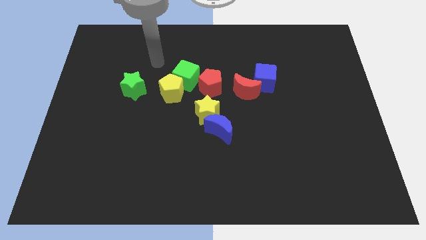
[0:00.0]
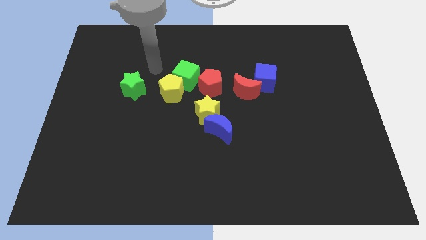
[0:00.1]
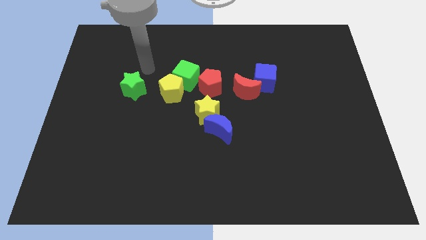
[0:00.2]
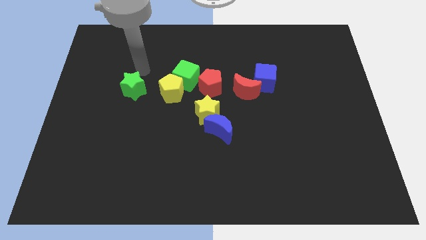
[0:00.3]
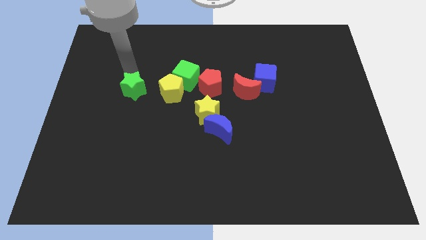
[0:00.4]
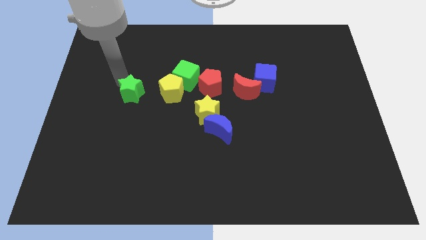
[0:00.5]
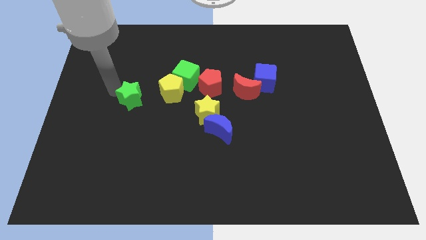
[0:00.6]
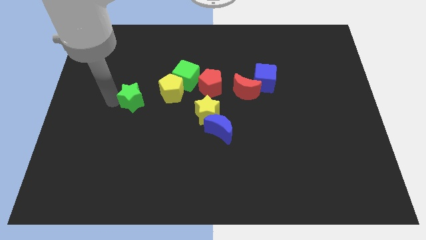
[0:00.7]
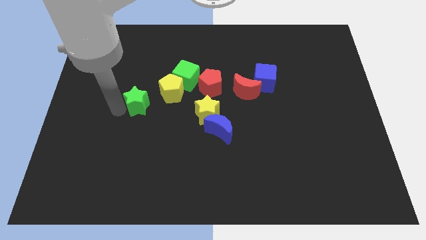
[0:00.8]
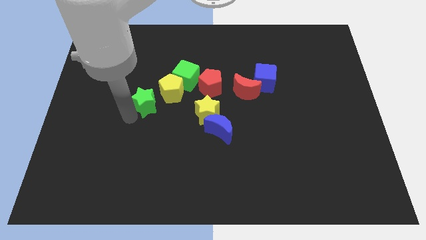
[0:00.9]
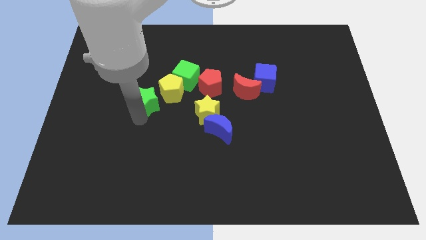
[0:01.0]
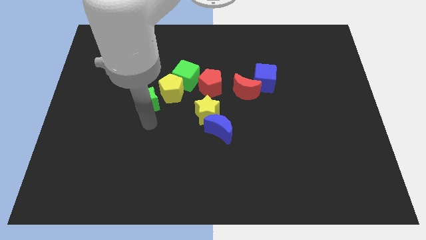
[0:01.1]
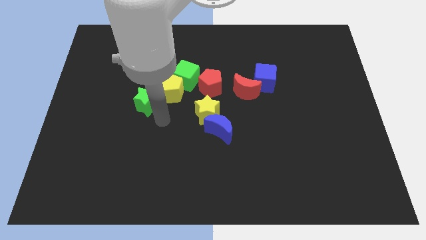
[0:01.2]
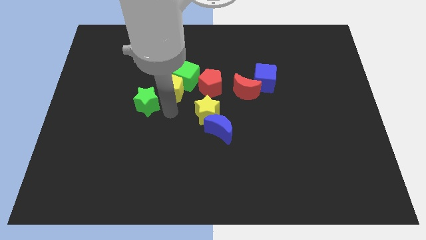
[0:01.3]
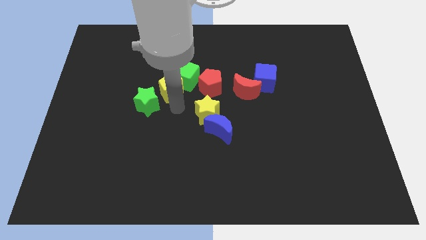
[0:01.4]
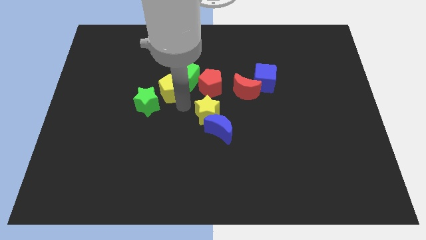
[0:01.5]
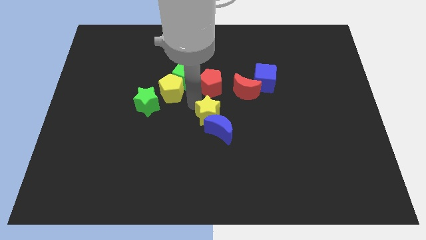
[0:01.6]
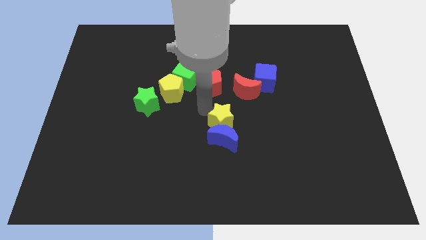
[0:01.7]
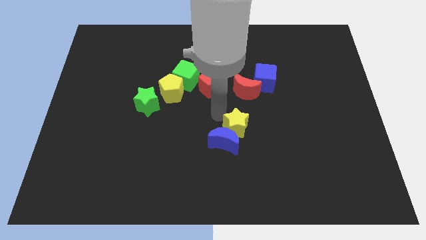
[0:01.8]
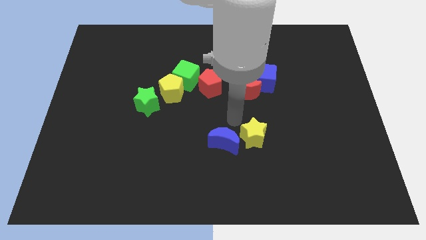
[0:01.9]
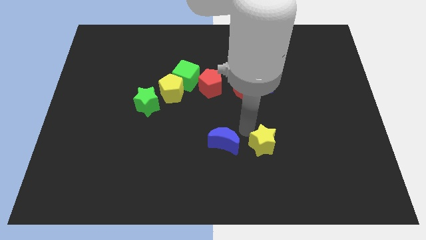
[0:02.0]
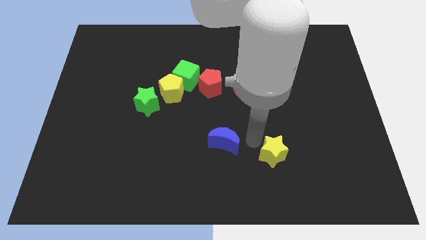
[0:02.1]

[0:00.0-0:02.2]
move the blue moon away from the yellow star

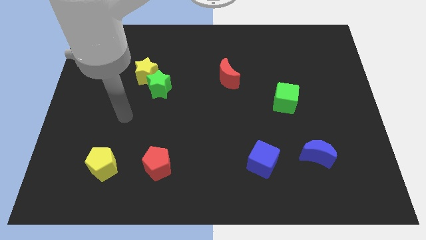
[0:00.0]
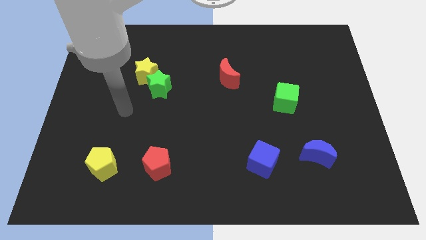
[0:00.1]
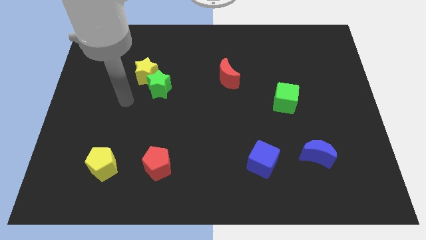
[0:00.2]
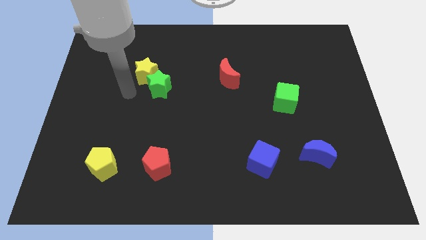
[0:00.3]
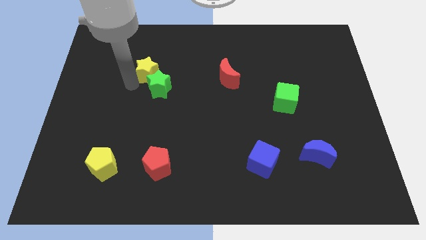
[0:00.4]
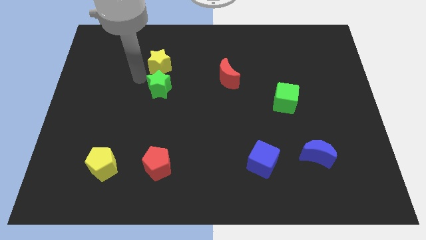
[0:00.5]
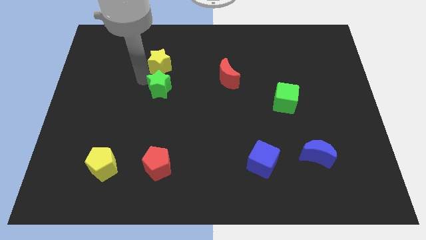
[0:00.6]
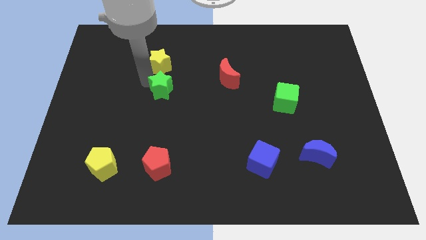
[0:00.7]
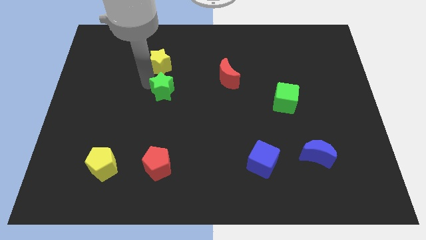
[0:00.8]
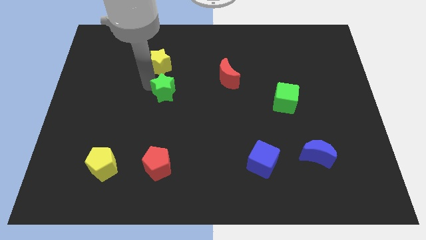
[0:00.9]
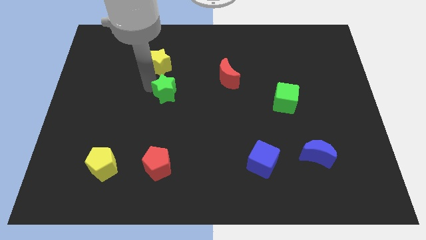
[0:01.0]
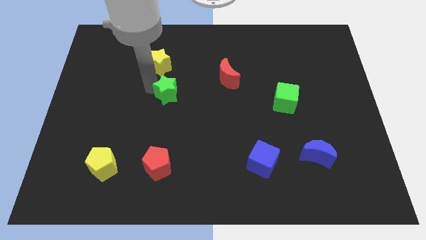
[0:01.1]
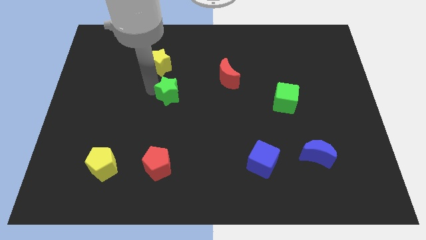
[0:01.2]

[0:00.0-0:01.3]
move the green star away from the yellow star

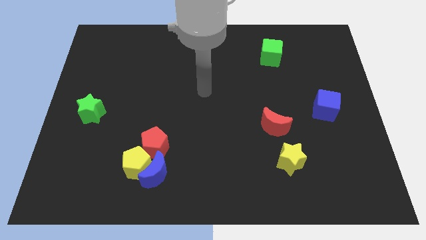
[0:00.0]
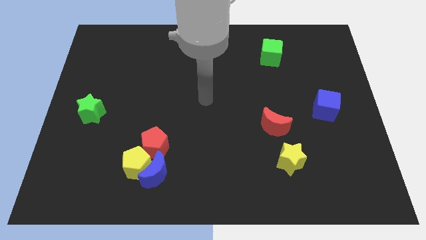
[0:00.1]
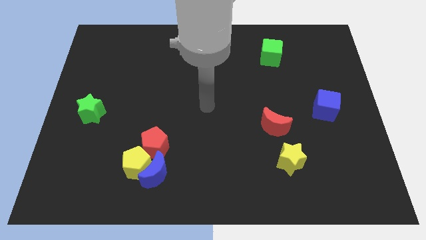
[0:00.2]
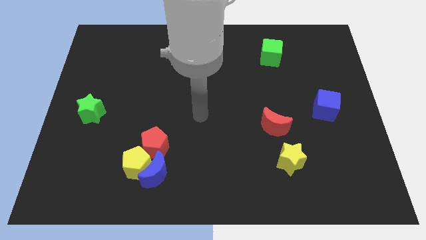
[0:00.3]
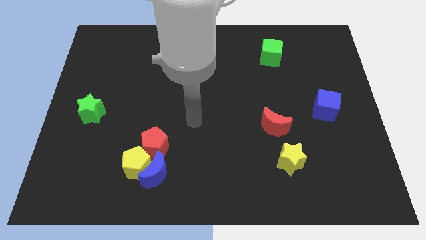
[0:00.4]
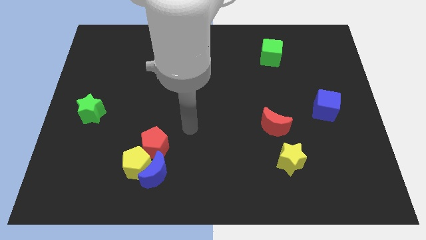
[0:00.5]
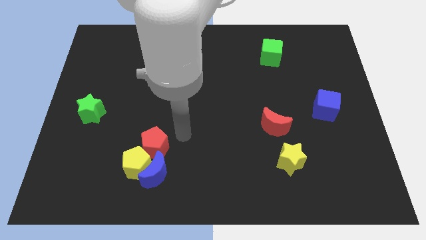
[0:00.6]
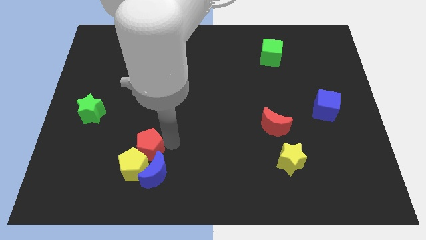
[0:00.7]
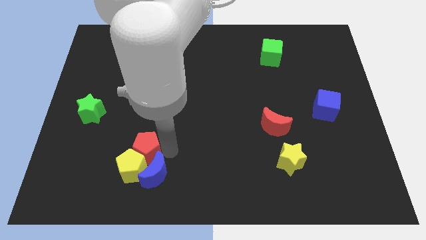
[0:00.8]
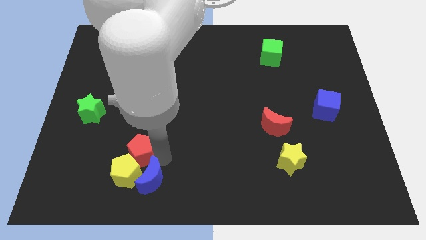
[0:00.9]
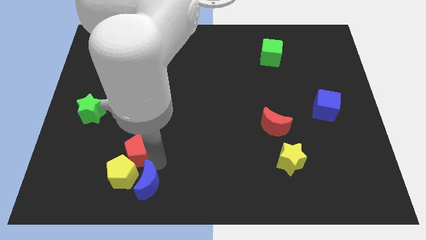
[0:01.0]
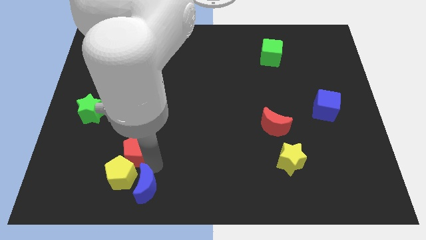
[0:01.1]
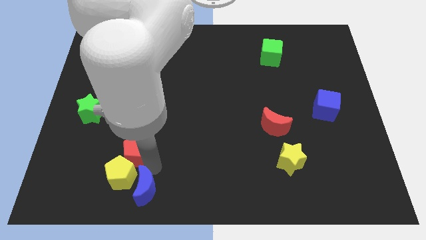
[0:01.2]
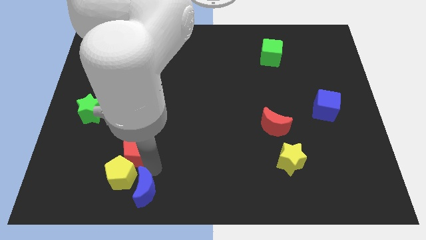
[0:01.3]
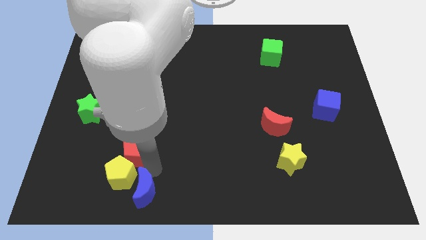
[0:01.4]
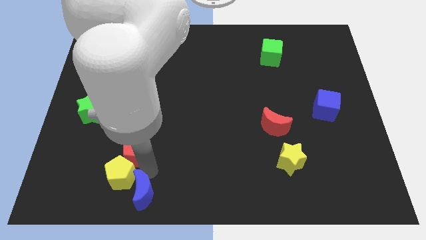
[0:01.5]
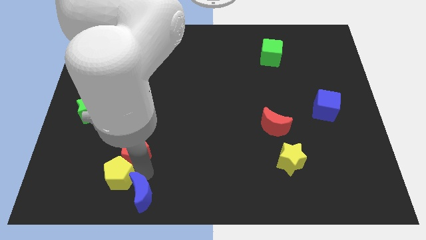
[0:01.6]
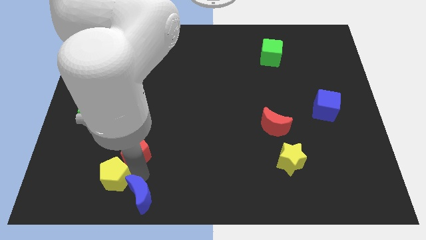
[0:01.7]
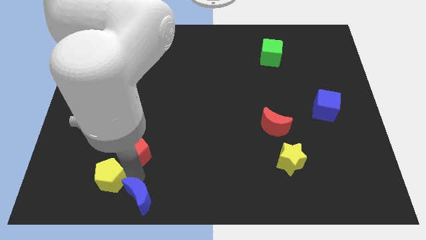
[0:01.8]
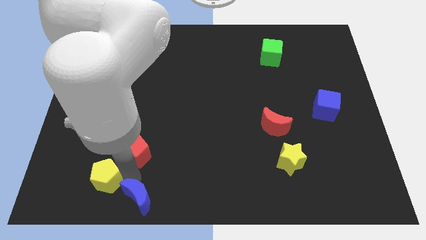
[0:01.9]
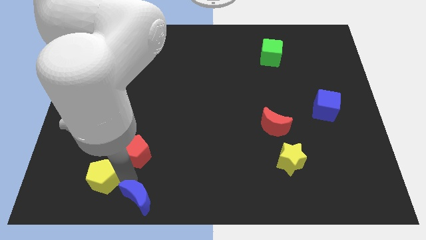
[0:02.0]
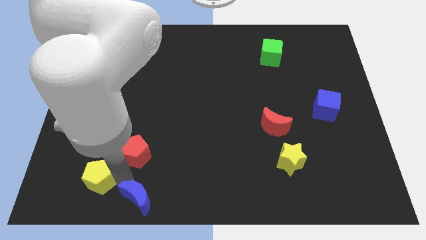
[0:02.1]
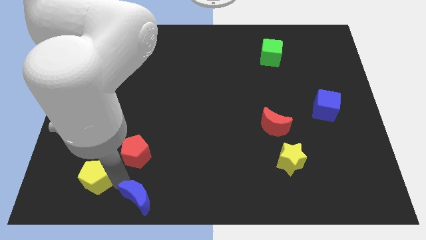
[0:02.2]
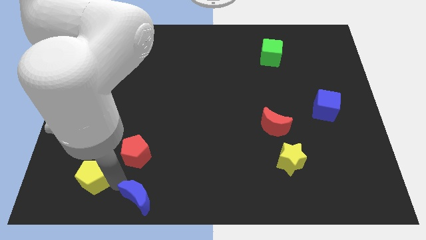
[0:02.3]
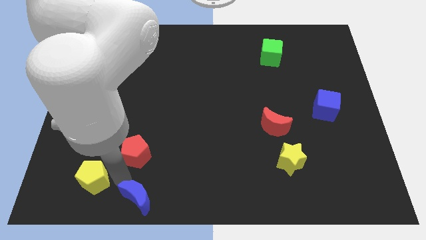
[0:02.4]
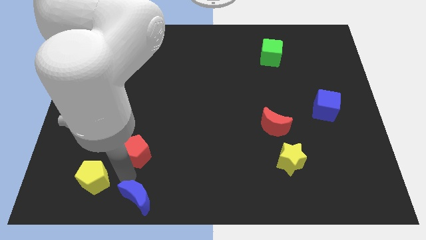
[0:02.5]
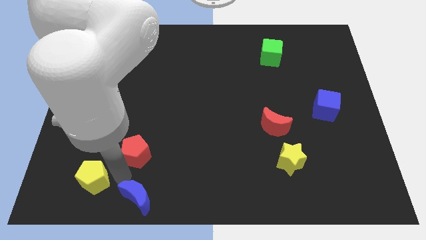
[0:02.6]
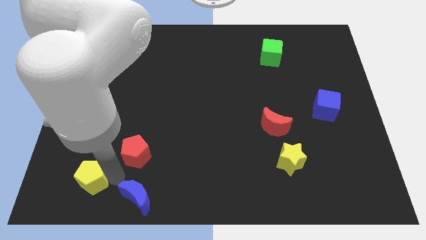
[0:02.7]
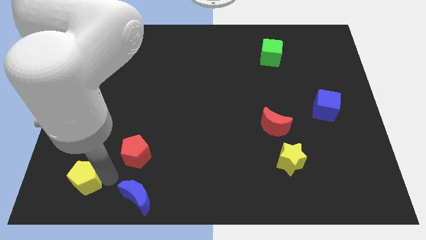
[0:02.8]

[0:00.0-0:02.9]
pull the yellow pentagon apart from the blue moon and red pentagon

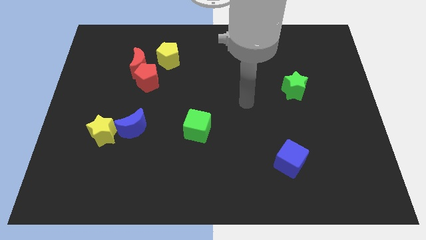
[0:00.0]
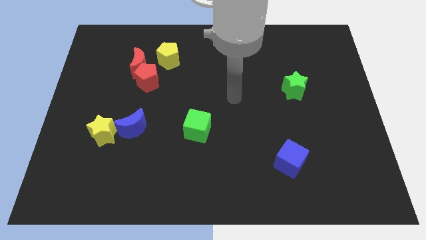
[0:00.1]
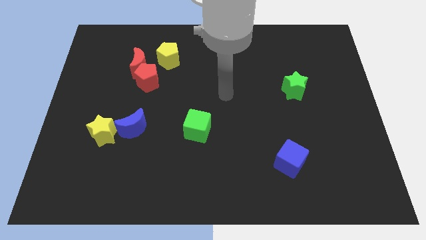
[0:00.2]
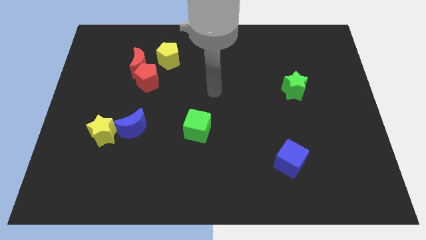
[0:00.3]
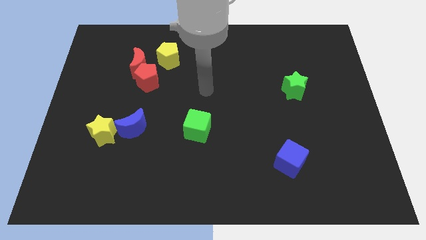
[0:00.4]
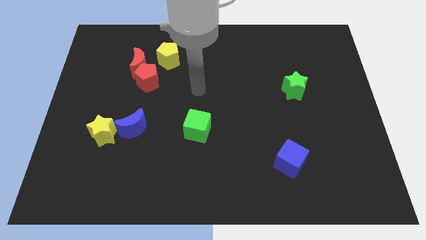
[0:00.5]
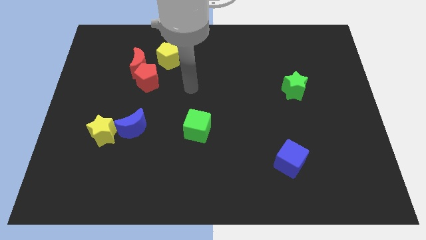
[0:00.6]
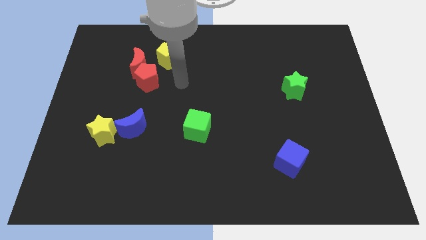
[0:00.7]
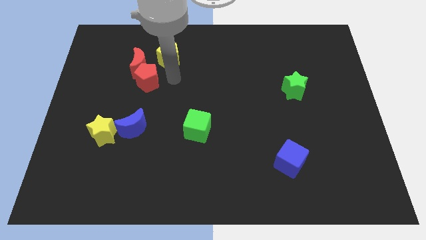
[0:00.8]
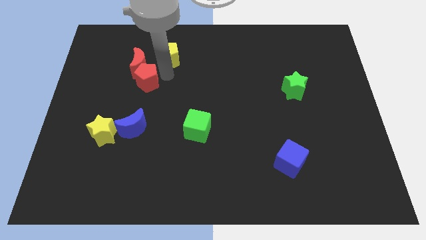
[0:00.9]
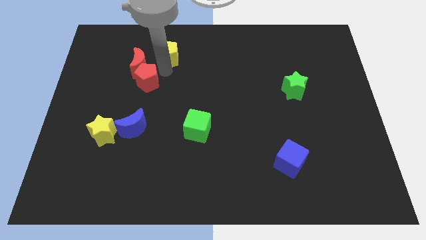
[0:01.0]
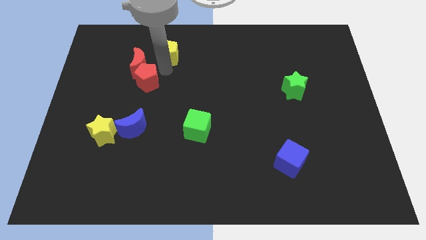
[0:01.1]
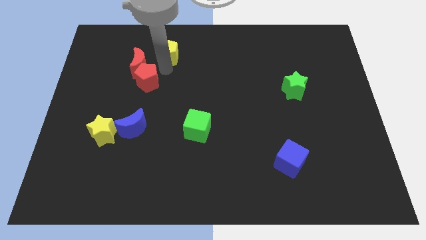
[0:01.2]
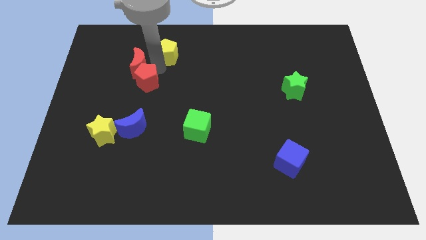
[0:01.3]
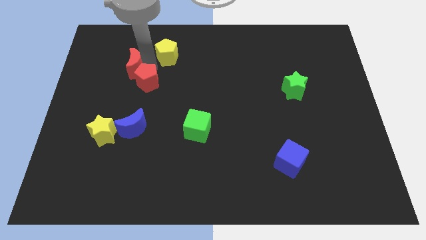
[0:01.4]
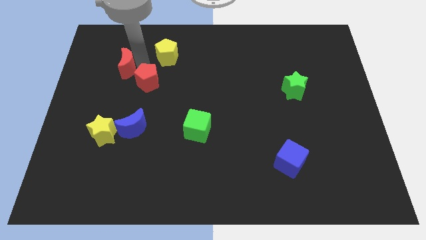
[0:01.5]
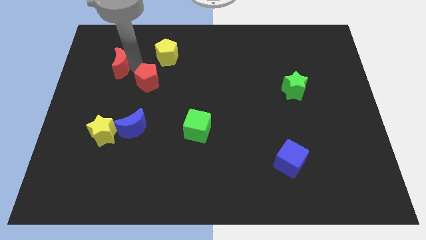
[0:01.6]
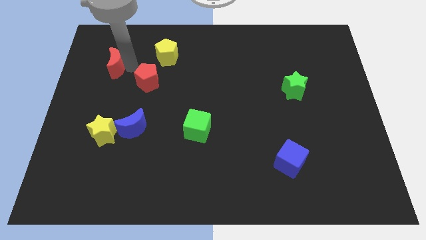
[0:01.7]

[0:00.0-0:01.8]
separate the red moon from the red pentagon and yellow pentagon

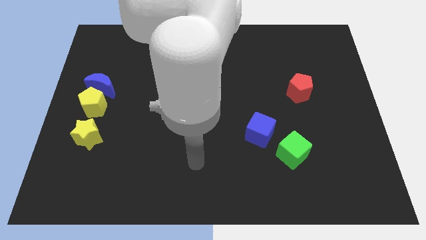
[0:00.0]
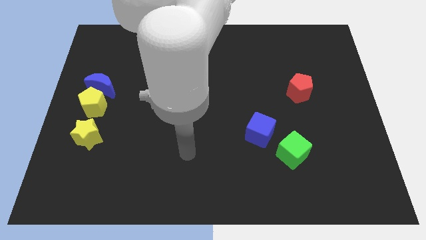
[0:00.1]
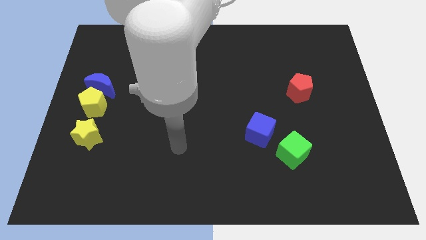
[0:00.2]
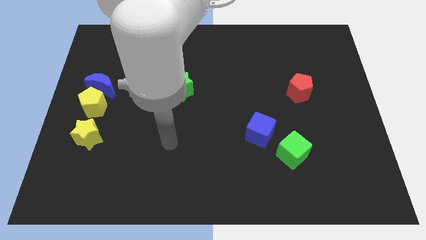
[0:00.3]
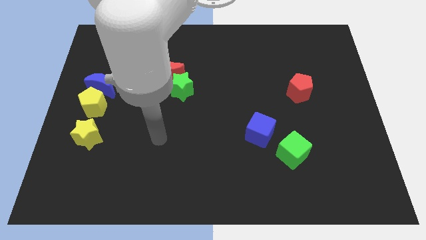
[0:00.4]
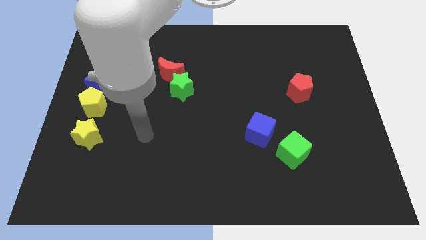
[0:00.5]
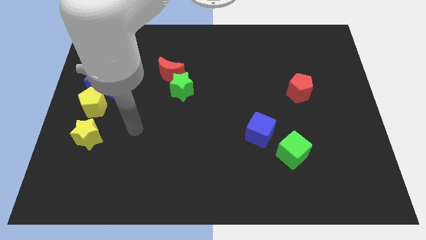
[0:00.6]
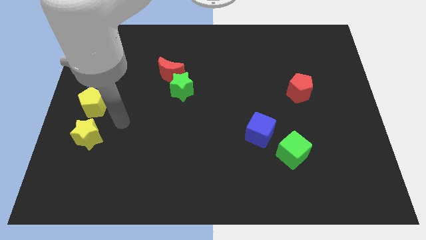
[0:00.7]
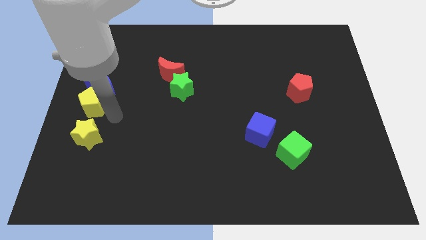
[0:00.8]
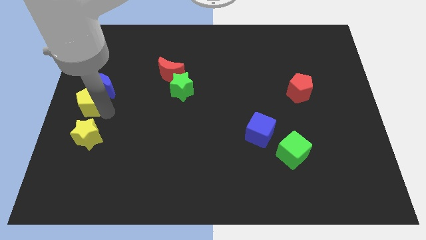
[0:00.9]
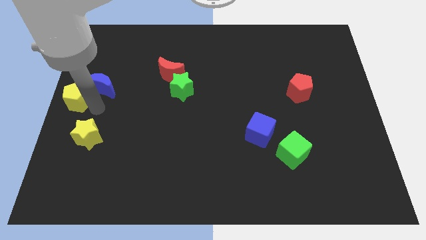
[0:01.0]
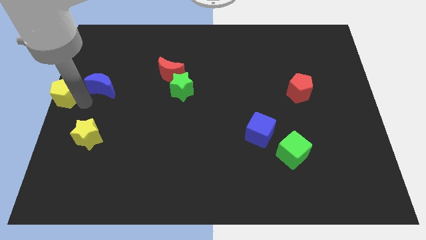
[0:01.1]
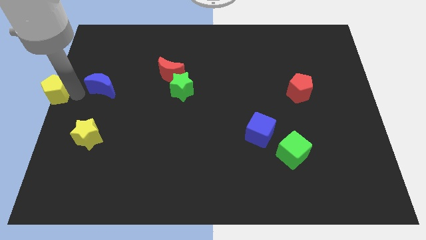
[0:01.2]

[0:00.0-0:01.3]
move the blue moon away from the yellow pentagon
